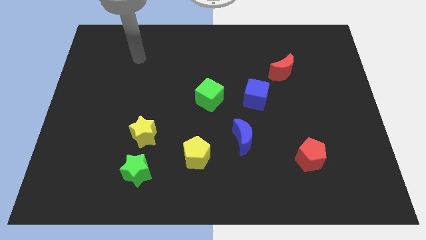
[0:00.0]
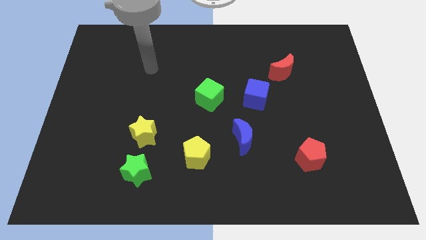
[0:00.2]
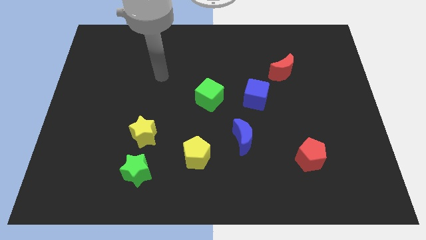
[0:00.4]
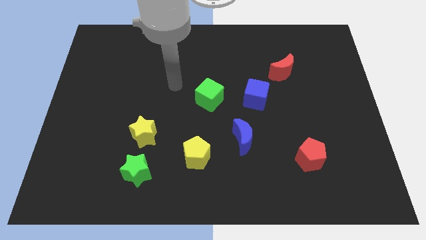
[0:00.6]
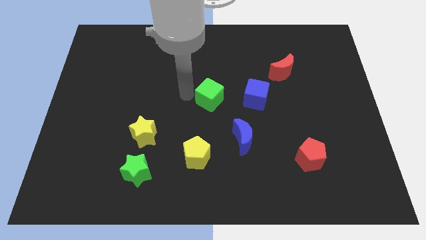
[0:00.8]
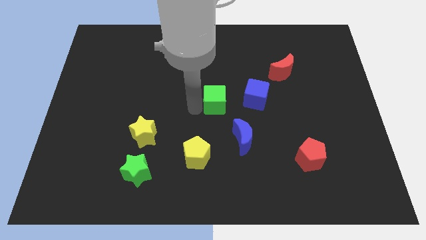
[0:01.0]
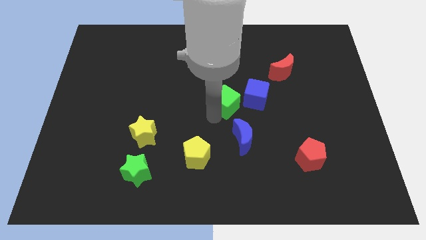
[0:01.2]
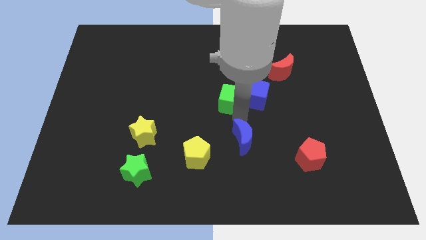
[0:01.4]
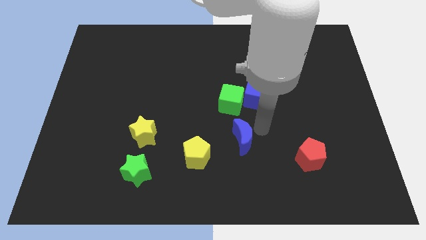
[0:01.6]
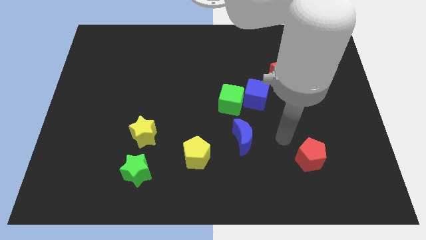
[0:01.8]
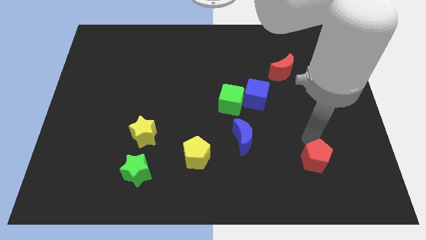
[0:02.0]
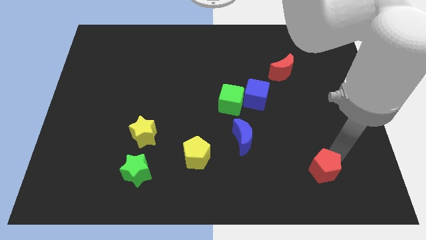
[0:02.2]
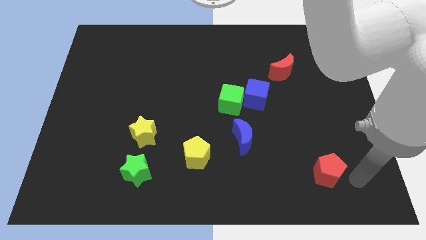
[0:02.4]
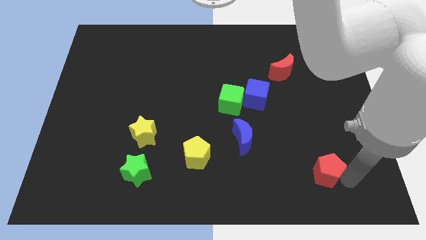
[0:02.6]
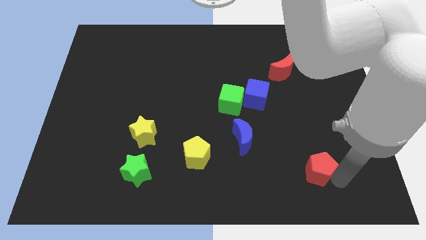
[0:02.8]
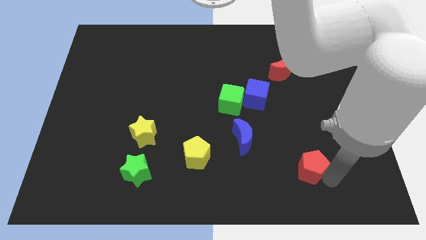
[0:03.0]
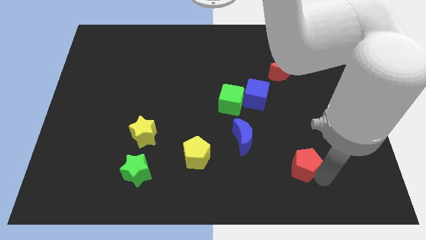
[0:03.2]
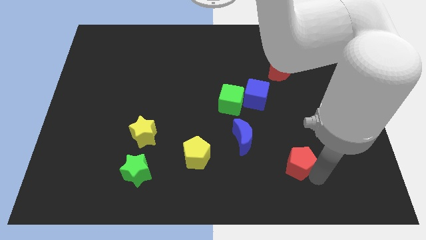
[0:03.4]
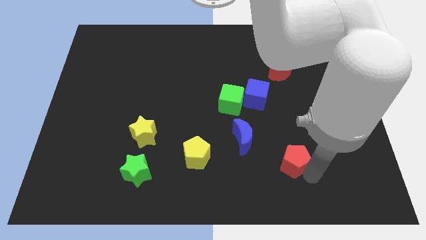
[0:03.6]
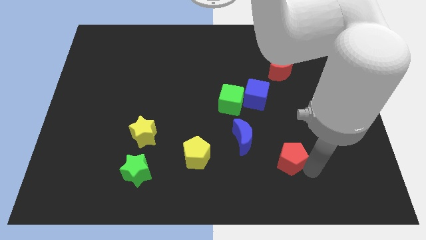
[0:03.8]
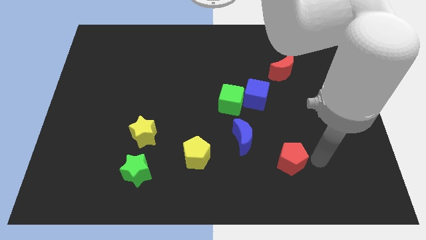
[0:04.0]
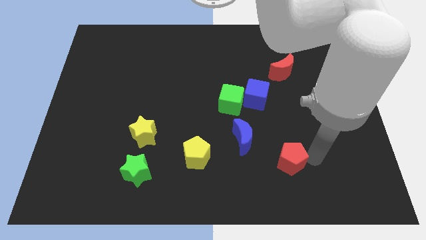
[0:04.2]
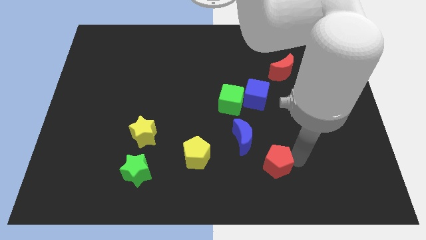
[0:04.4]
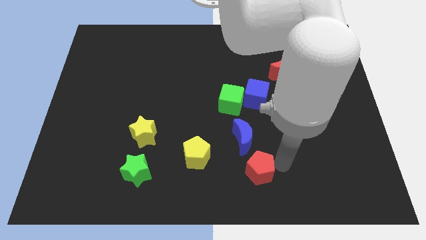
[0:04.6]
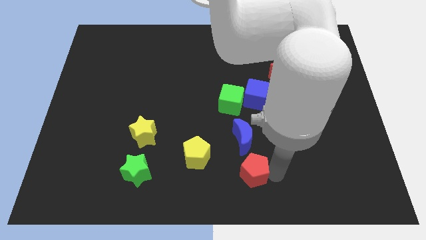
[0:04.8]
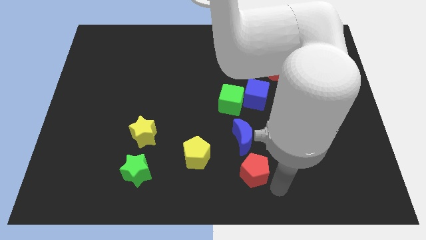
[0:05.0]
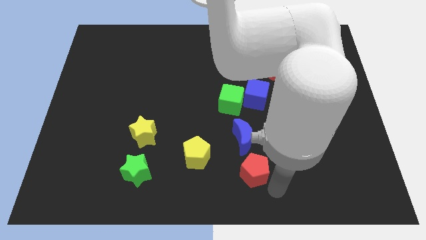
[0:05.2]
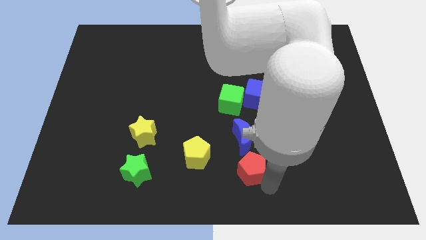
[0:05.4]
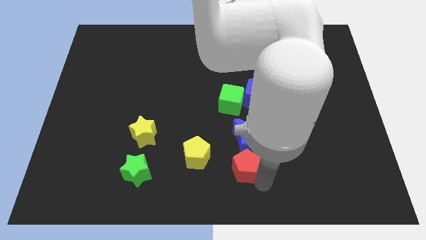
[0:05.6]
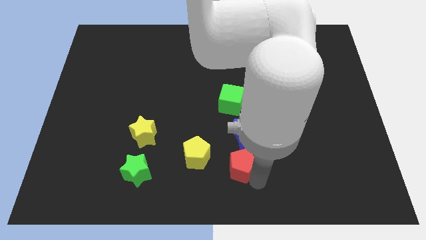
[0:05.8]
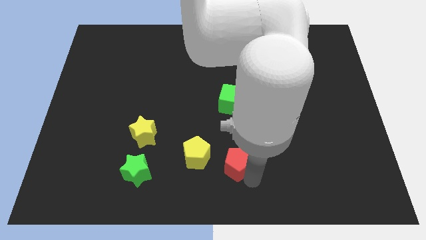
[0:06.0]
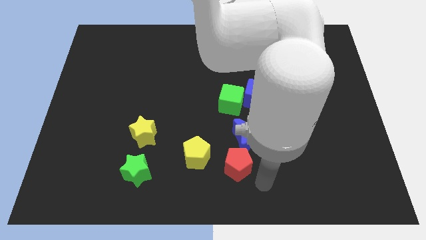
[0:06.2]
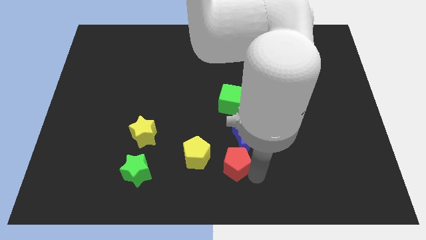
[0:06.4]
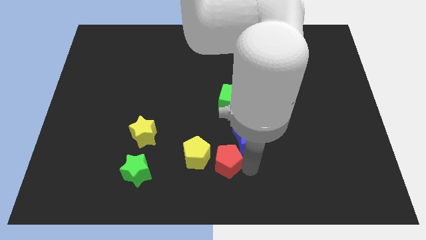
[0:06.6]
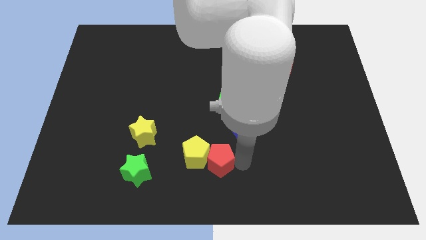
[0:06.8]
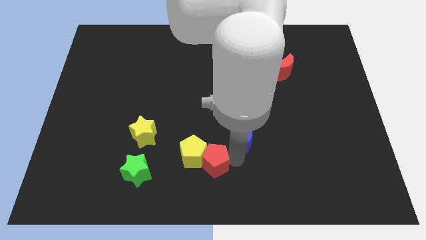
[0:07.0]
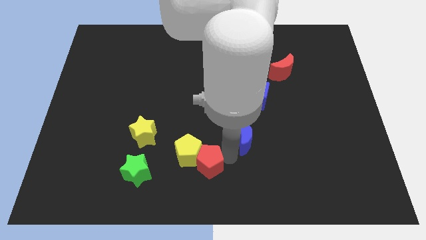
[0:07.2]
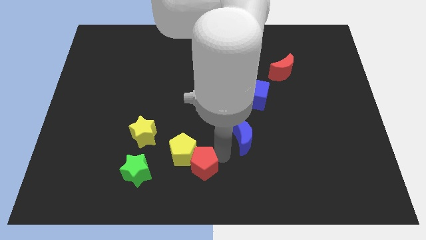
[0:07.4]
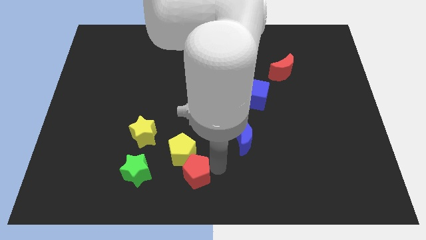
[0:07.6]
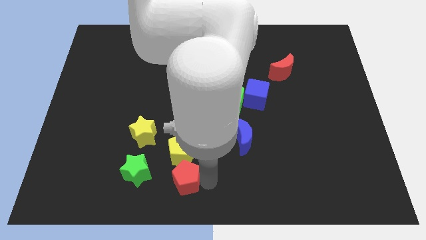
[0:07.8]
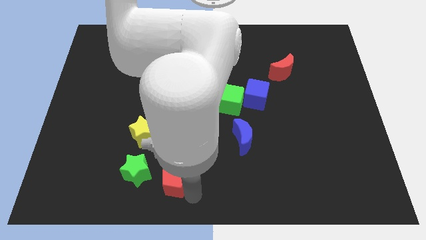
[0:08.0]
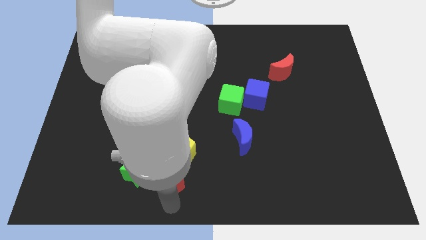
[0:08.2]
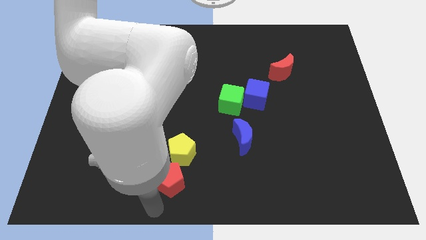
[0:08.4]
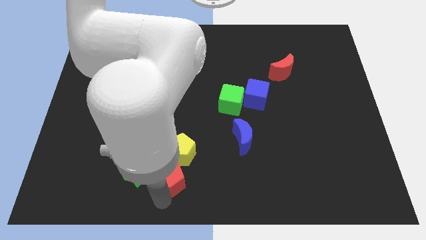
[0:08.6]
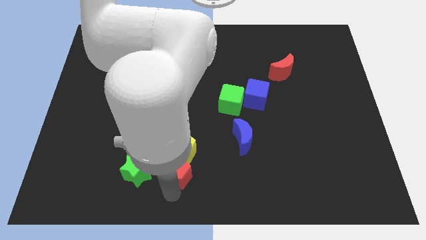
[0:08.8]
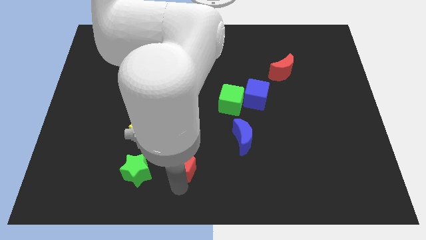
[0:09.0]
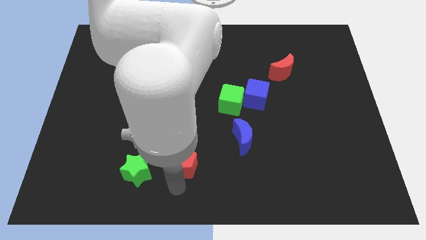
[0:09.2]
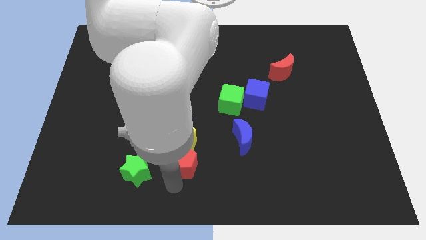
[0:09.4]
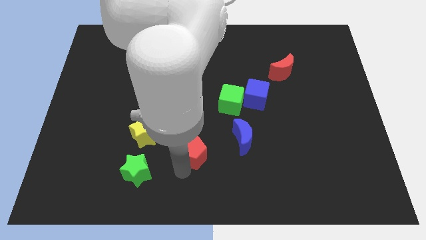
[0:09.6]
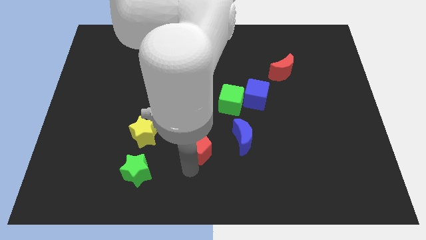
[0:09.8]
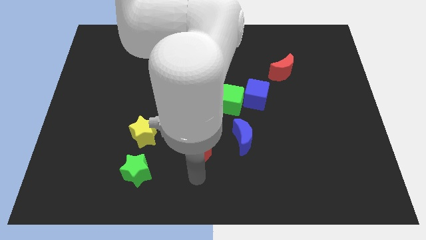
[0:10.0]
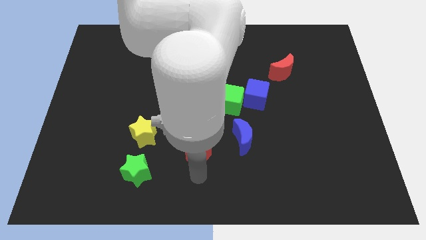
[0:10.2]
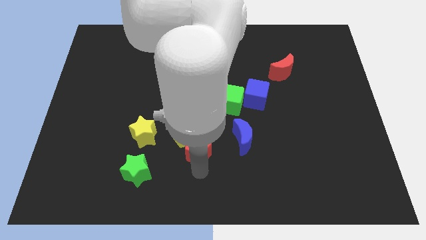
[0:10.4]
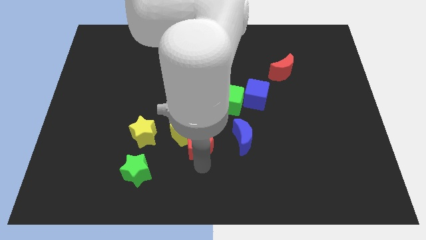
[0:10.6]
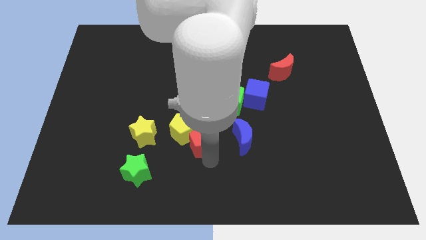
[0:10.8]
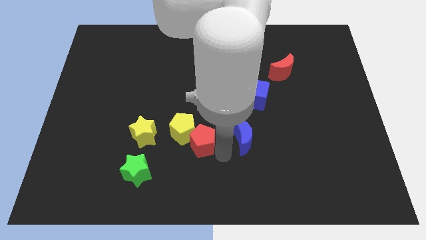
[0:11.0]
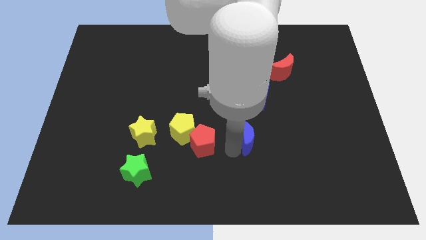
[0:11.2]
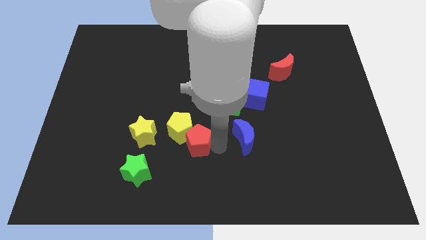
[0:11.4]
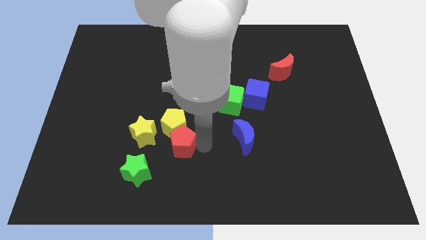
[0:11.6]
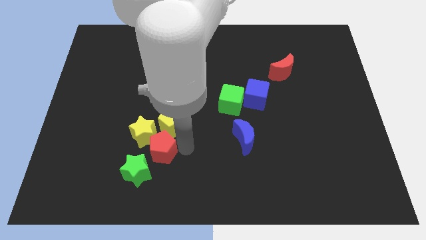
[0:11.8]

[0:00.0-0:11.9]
slide the red pentagon to the yellow star

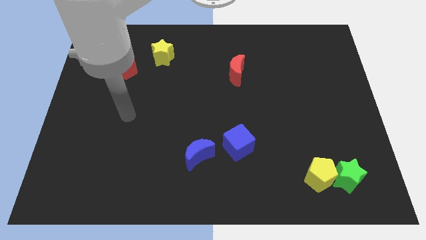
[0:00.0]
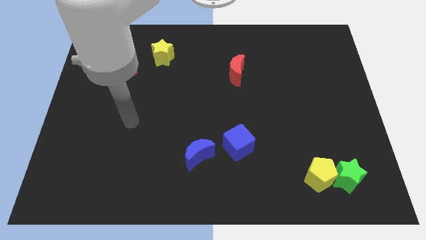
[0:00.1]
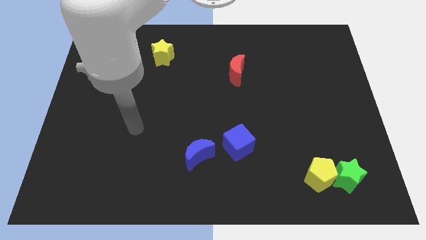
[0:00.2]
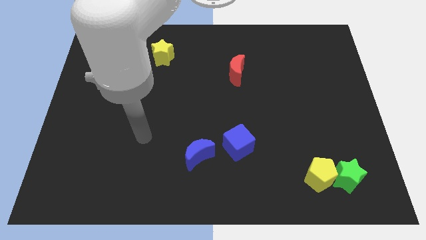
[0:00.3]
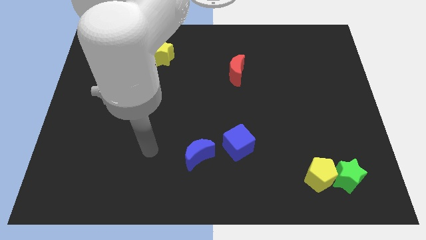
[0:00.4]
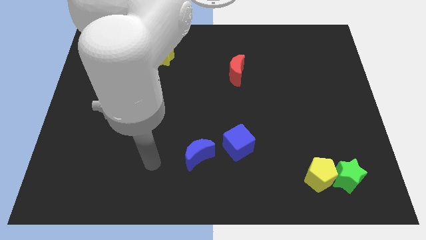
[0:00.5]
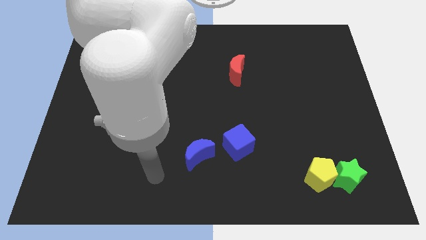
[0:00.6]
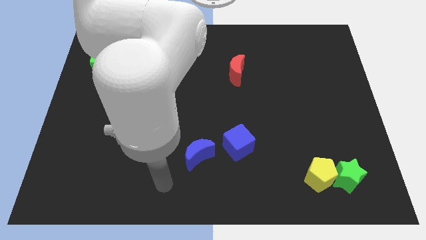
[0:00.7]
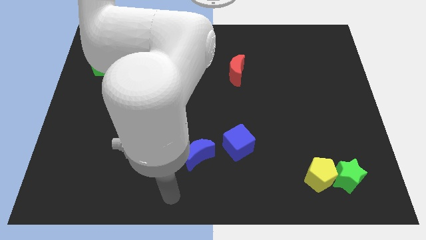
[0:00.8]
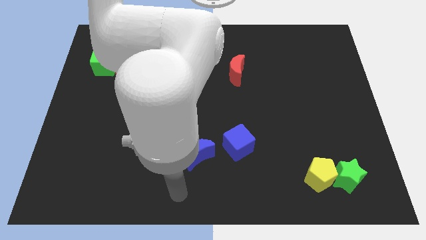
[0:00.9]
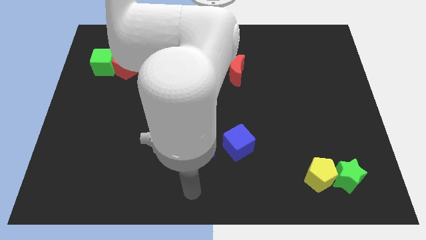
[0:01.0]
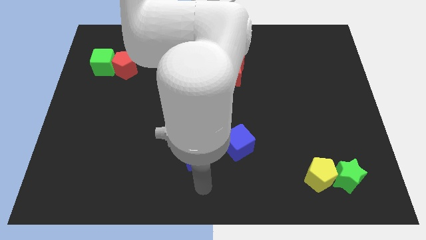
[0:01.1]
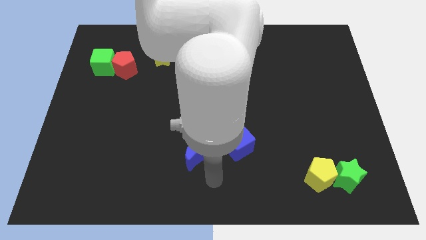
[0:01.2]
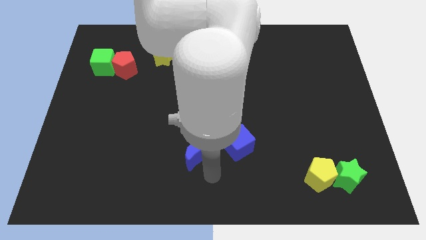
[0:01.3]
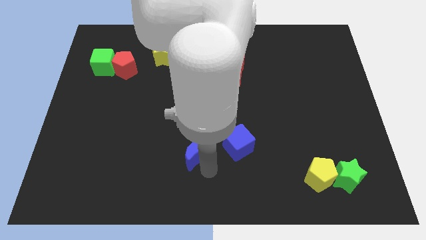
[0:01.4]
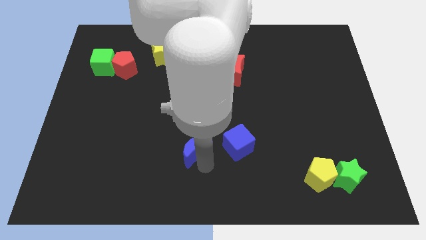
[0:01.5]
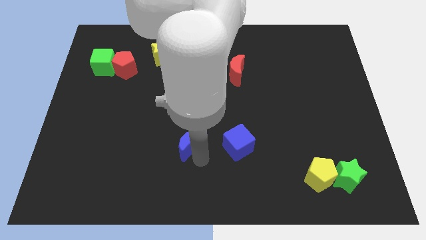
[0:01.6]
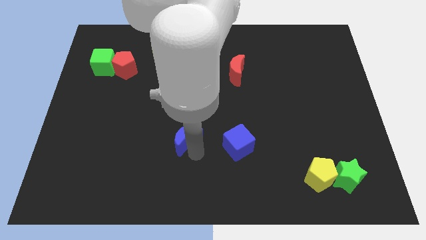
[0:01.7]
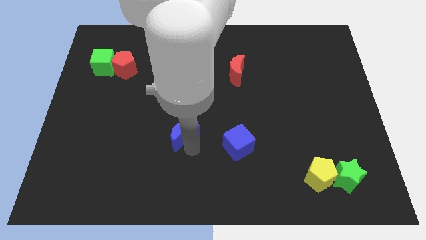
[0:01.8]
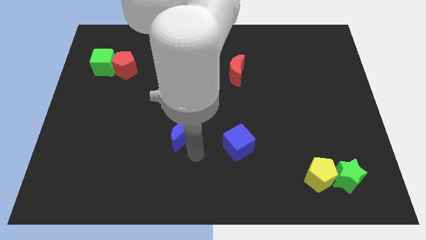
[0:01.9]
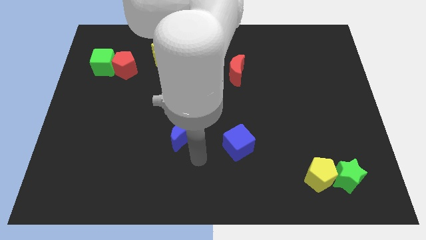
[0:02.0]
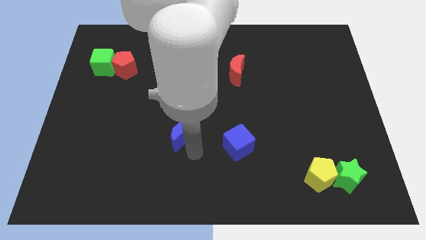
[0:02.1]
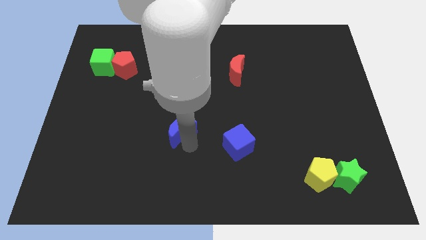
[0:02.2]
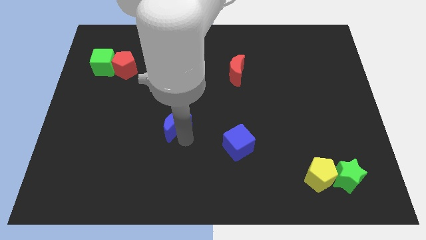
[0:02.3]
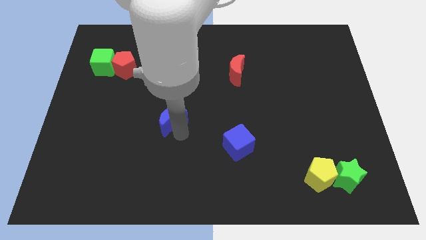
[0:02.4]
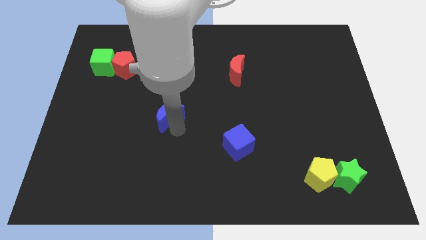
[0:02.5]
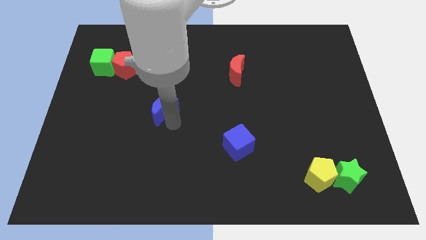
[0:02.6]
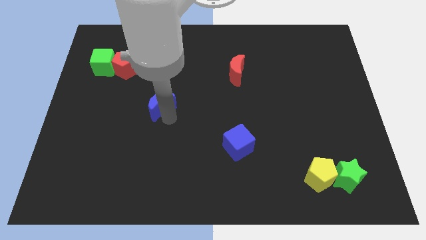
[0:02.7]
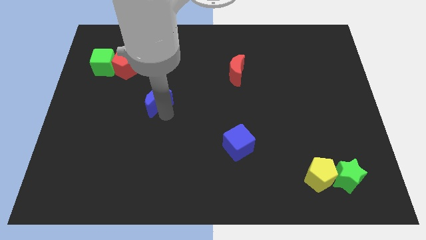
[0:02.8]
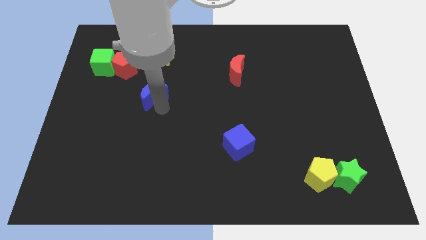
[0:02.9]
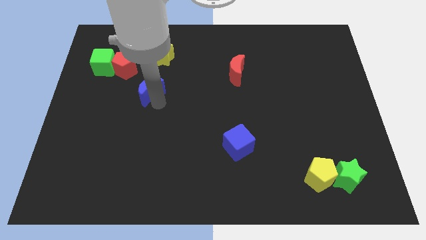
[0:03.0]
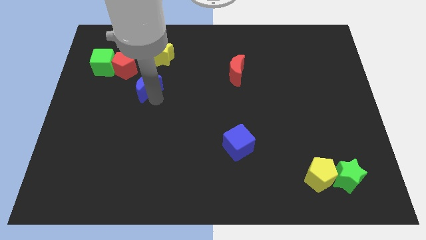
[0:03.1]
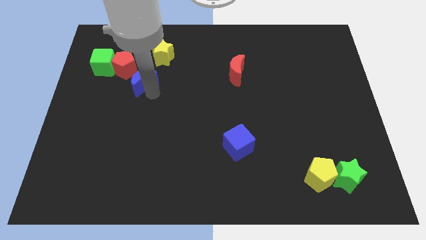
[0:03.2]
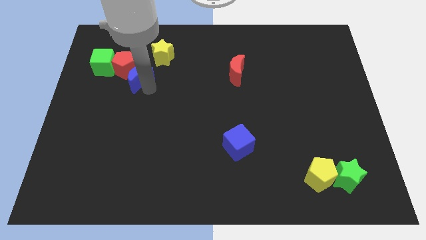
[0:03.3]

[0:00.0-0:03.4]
push the blue moon next to the red pentagon
